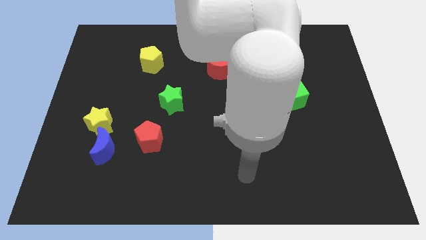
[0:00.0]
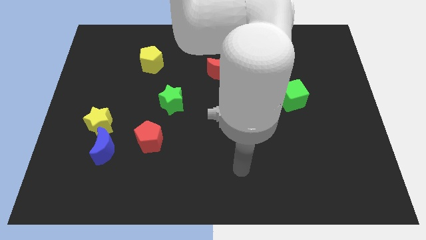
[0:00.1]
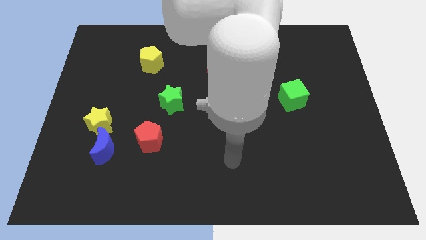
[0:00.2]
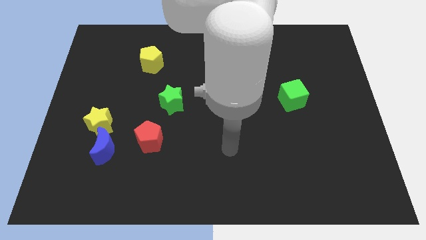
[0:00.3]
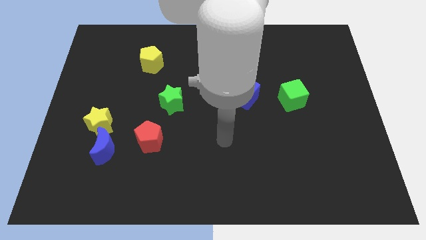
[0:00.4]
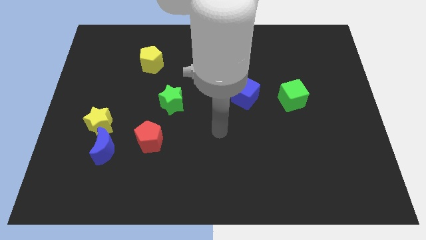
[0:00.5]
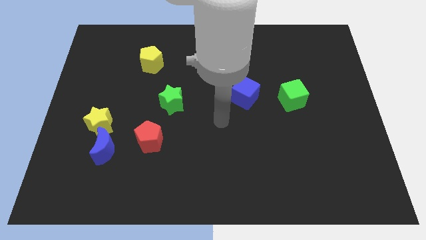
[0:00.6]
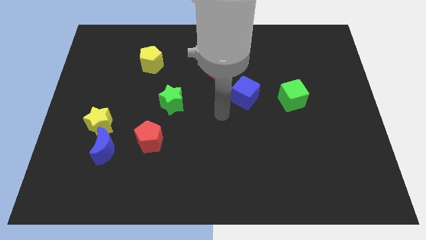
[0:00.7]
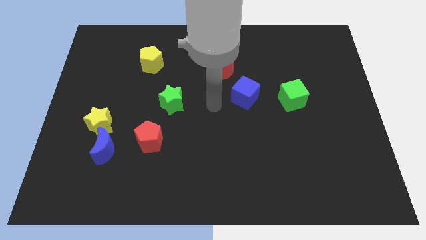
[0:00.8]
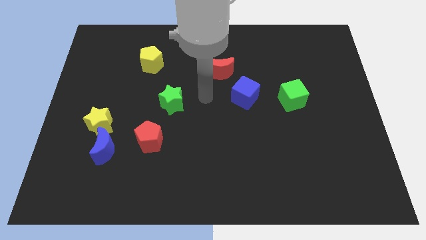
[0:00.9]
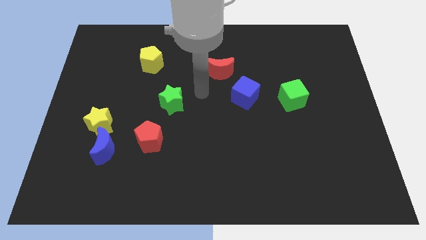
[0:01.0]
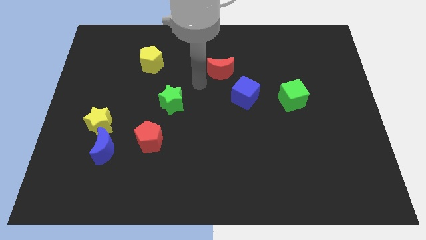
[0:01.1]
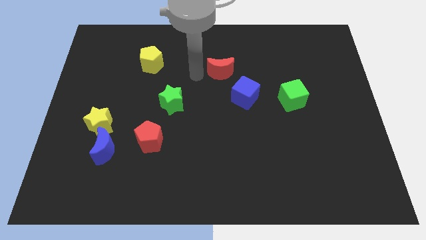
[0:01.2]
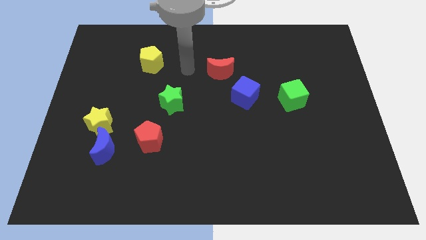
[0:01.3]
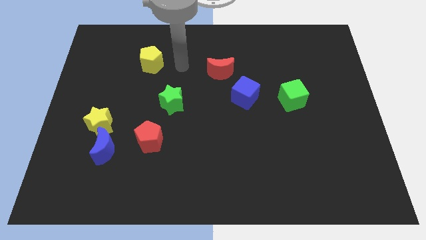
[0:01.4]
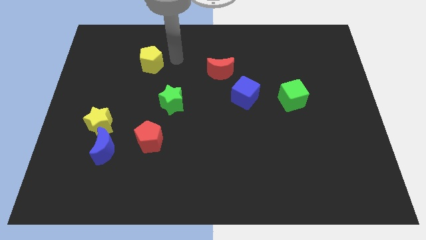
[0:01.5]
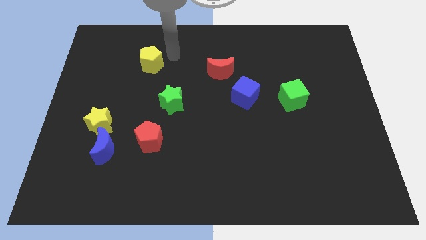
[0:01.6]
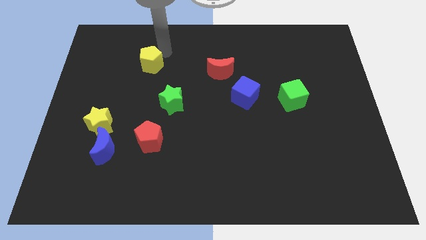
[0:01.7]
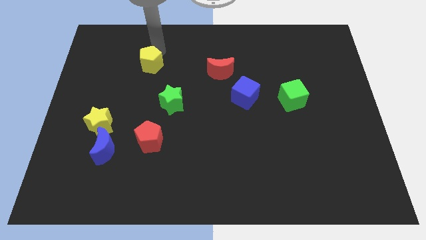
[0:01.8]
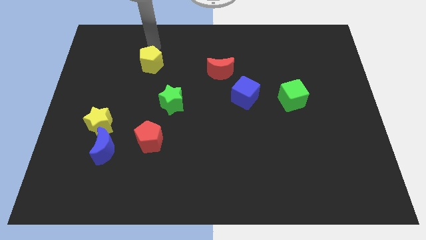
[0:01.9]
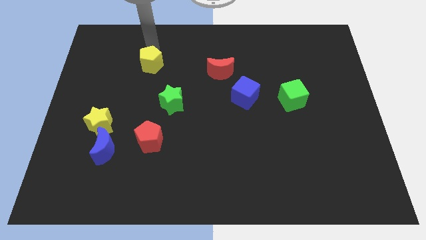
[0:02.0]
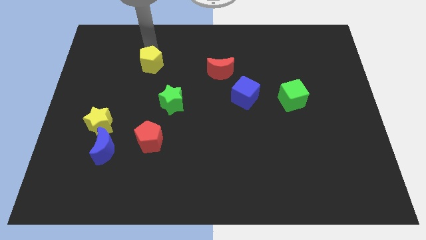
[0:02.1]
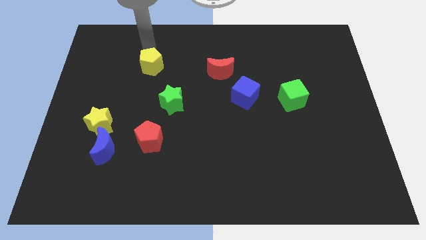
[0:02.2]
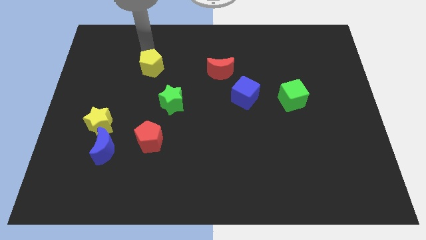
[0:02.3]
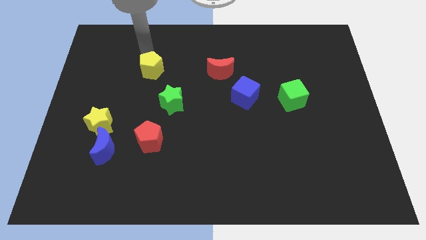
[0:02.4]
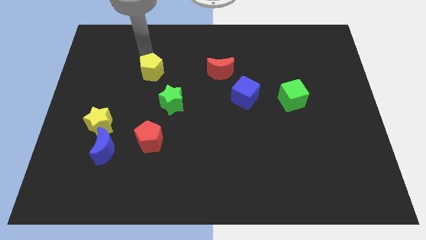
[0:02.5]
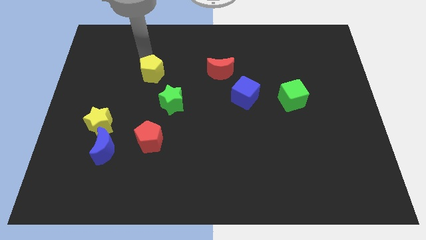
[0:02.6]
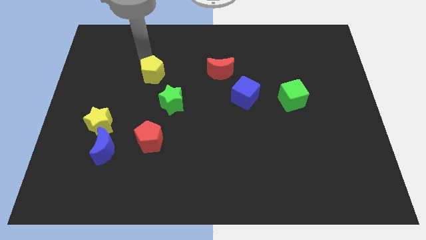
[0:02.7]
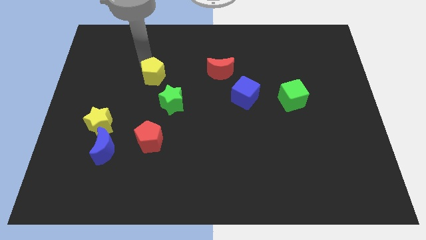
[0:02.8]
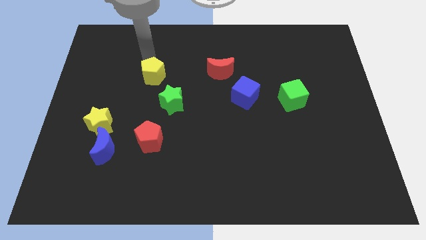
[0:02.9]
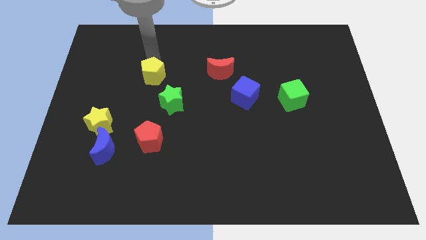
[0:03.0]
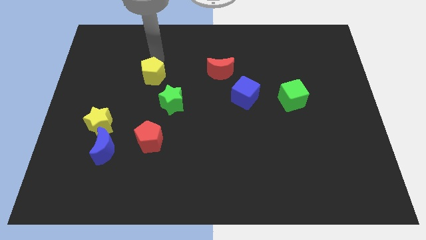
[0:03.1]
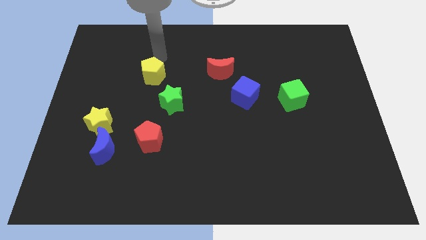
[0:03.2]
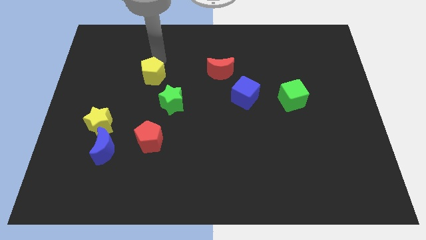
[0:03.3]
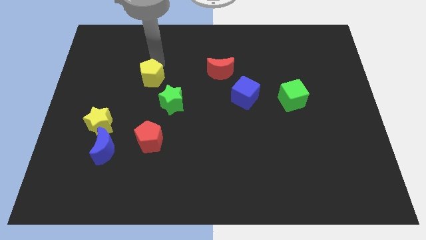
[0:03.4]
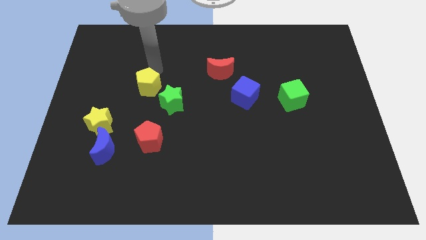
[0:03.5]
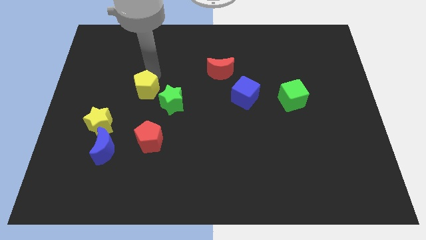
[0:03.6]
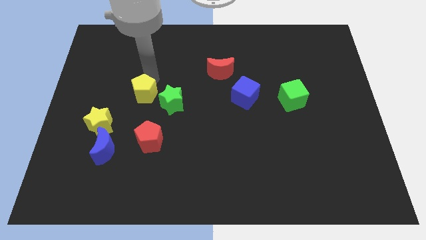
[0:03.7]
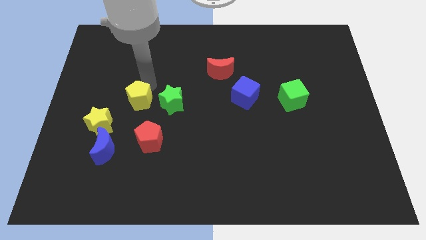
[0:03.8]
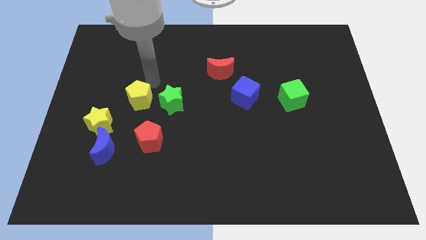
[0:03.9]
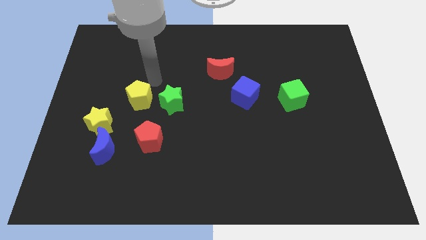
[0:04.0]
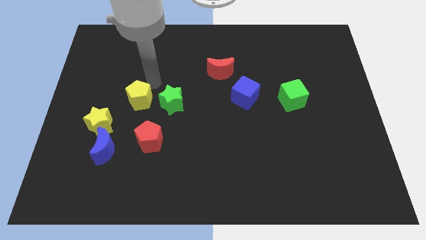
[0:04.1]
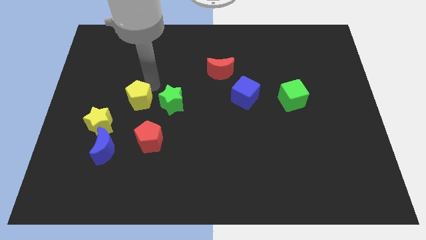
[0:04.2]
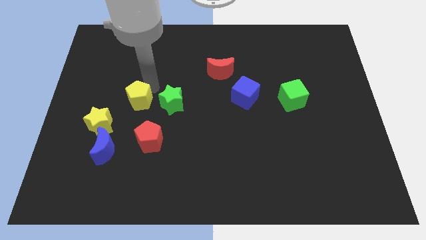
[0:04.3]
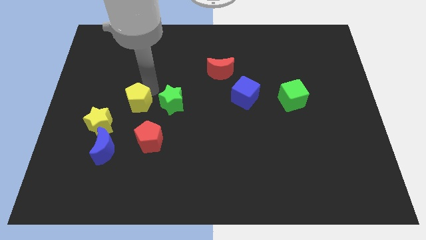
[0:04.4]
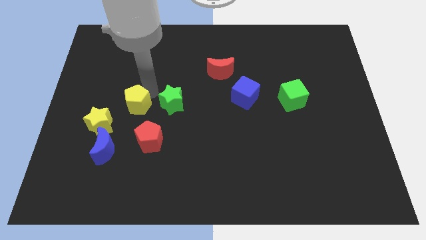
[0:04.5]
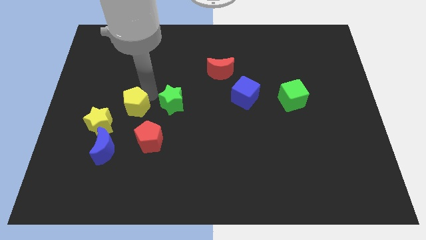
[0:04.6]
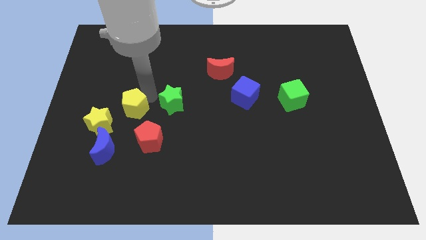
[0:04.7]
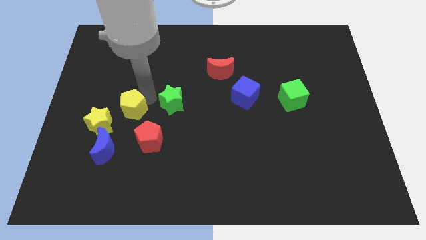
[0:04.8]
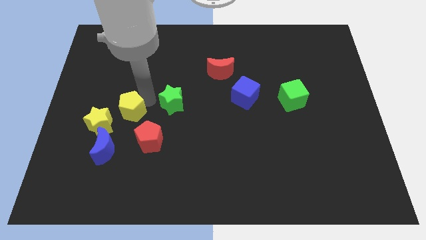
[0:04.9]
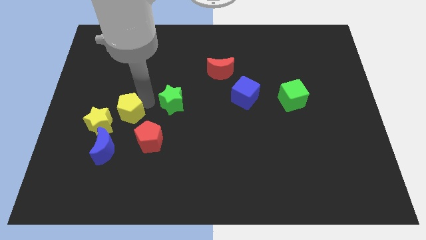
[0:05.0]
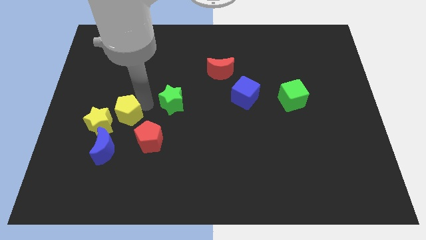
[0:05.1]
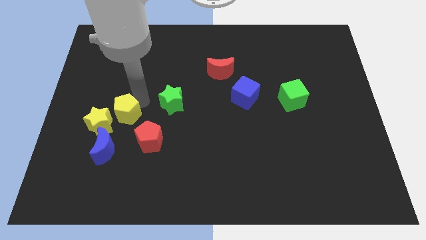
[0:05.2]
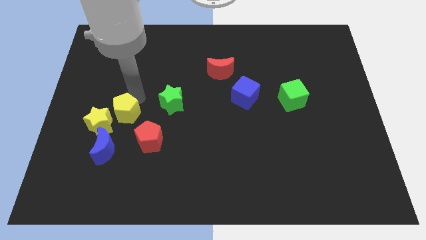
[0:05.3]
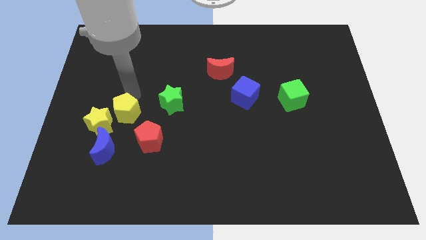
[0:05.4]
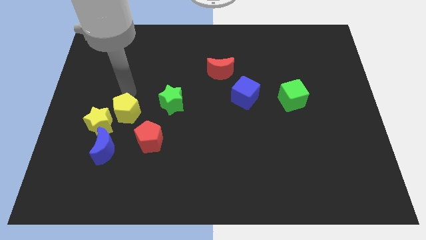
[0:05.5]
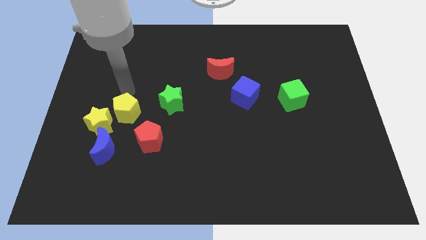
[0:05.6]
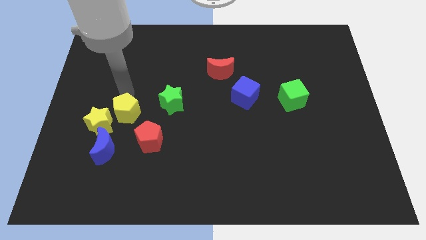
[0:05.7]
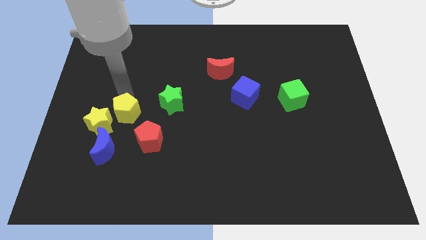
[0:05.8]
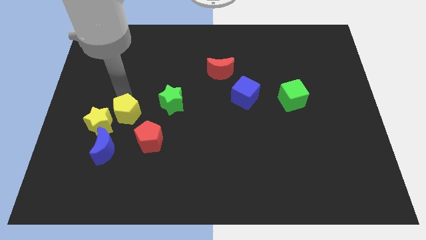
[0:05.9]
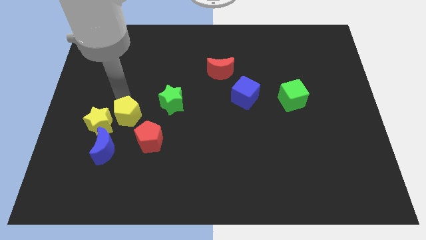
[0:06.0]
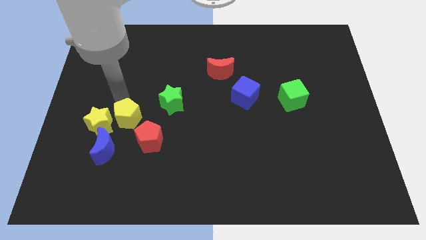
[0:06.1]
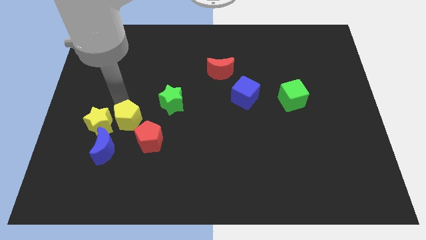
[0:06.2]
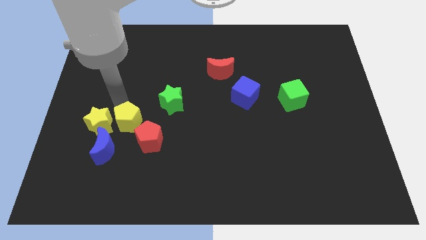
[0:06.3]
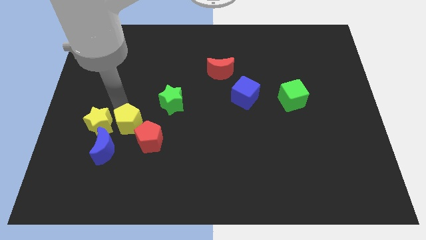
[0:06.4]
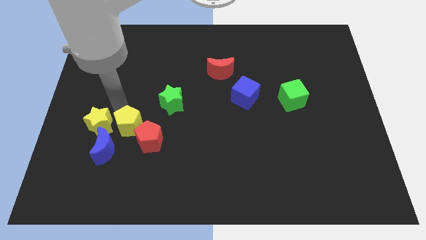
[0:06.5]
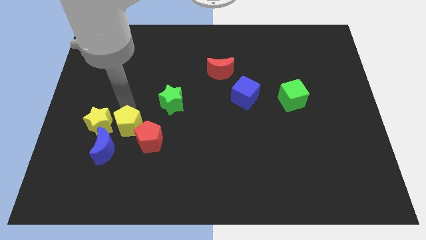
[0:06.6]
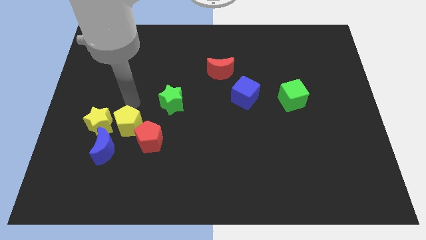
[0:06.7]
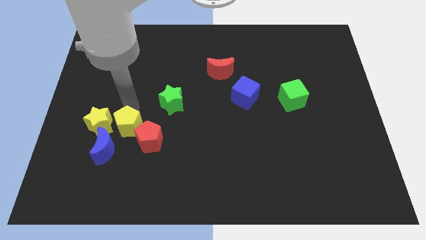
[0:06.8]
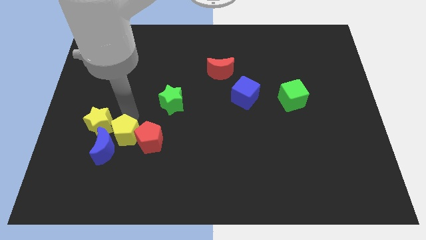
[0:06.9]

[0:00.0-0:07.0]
slide the yellow pentagon down

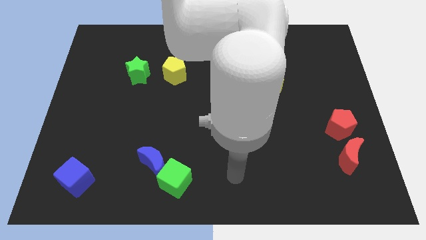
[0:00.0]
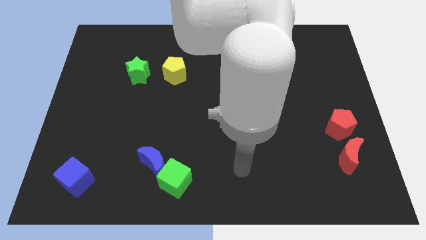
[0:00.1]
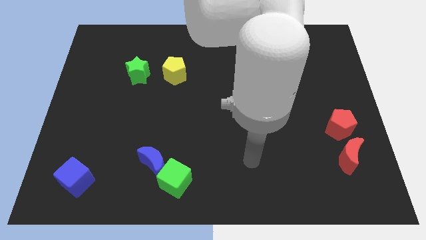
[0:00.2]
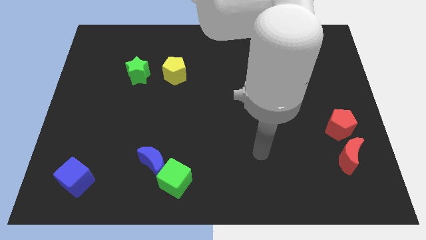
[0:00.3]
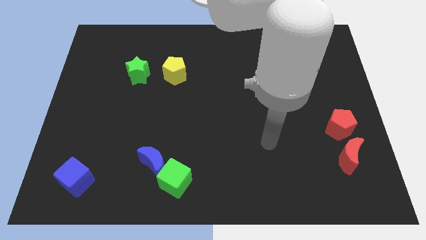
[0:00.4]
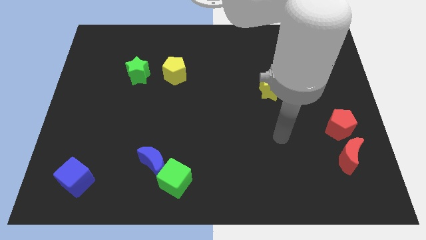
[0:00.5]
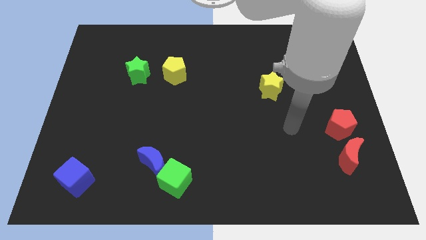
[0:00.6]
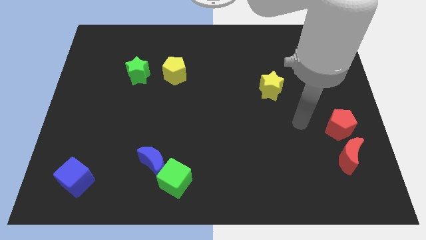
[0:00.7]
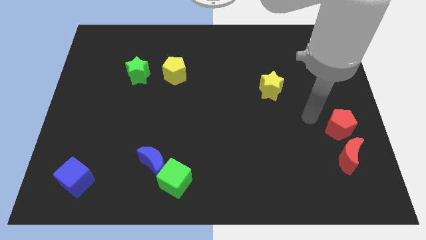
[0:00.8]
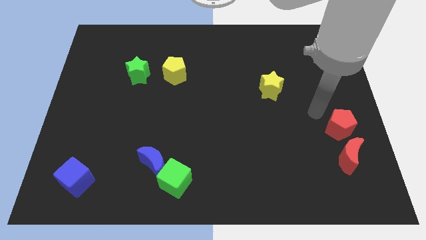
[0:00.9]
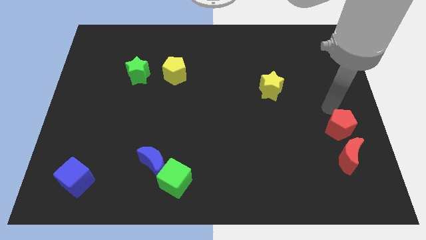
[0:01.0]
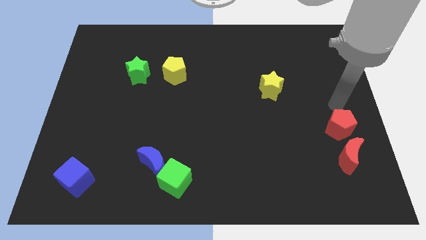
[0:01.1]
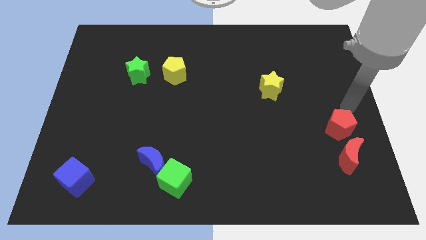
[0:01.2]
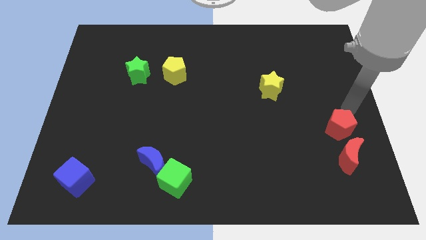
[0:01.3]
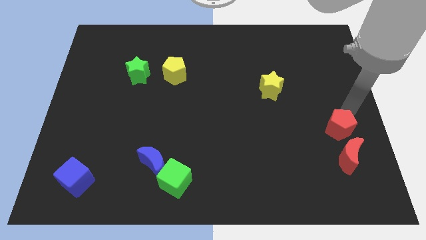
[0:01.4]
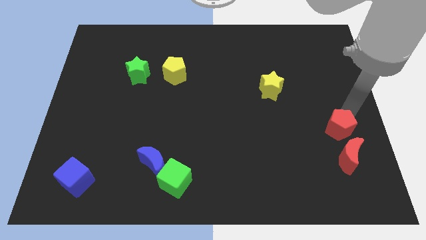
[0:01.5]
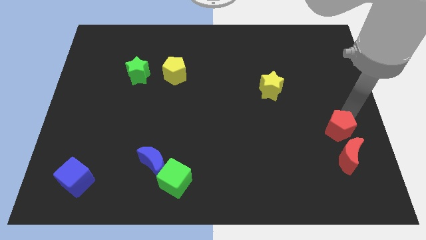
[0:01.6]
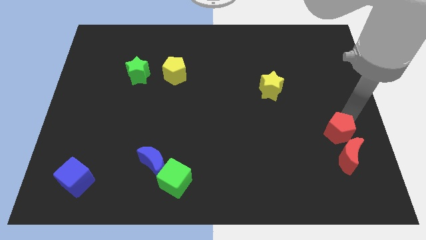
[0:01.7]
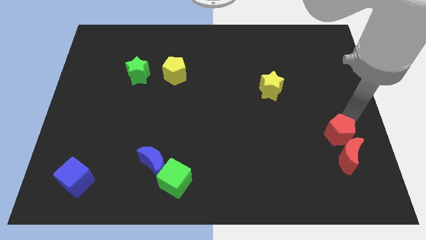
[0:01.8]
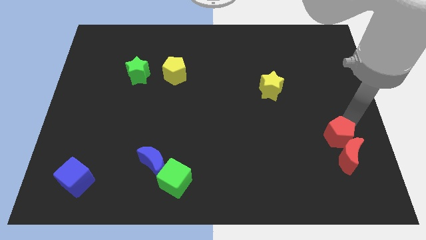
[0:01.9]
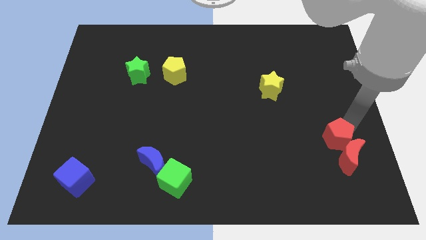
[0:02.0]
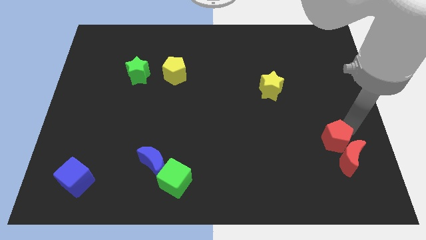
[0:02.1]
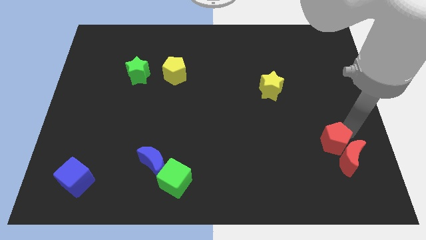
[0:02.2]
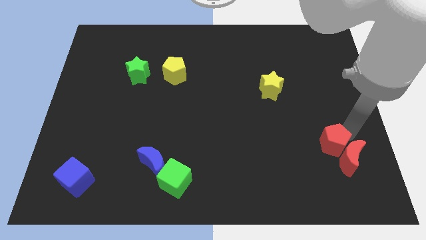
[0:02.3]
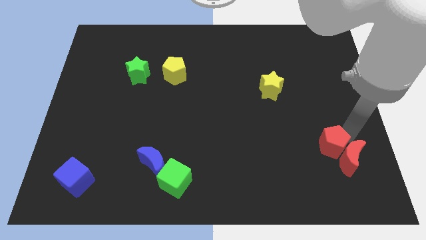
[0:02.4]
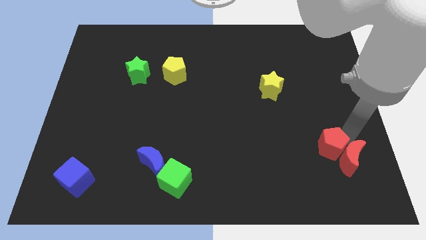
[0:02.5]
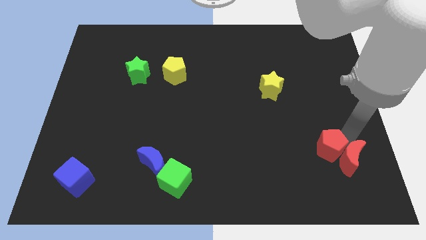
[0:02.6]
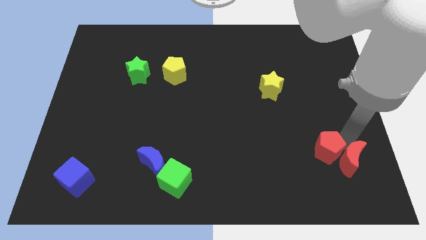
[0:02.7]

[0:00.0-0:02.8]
slightly move the red pentagon diagonally down and to the left
